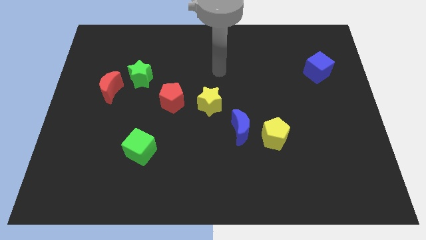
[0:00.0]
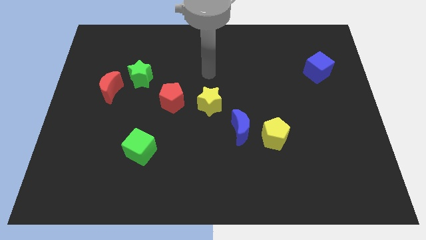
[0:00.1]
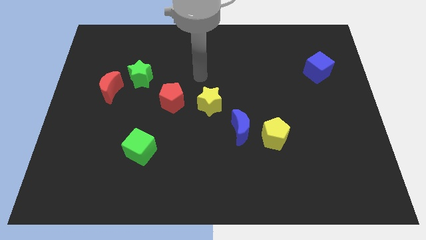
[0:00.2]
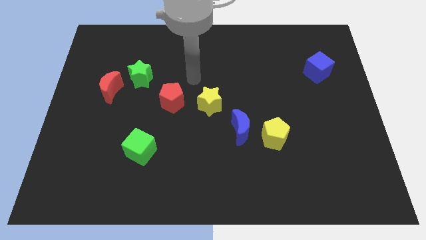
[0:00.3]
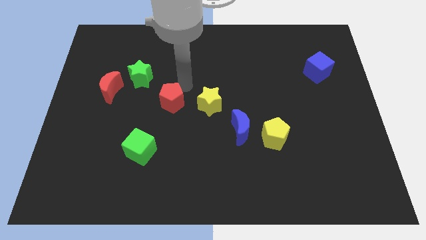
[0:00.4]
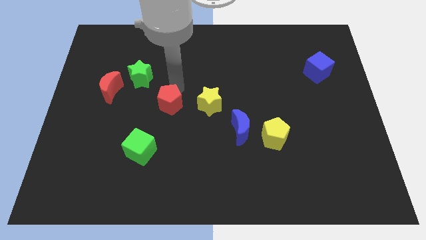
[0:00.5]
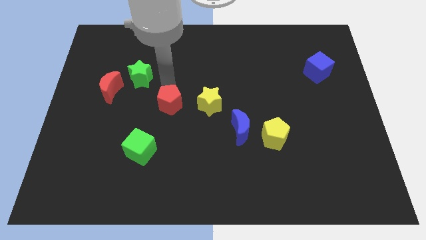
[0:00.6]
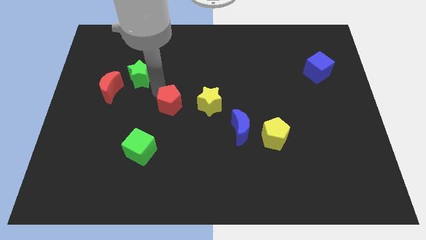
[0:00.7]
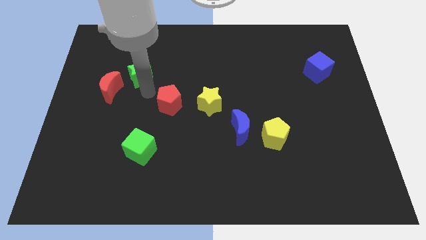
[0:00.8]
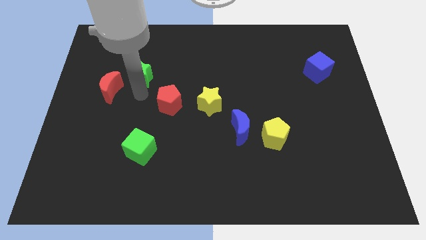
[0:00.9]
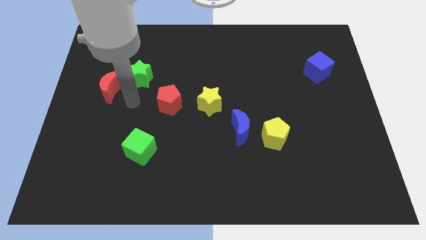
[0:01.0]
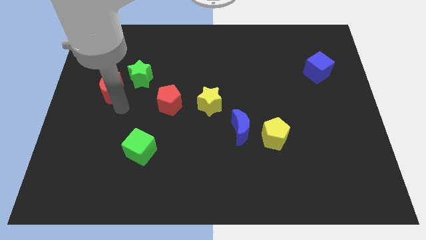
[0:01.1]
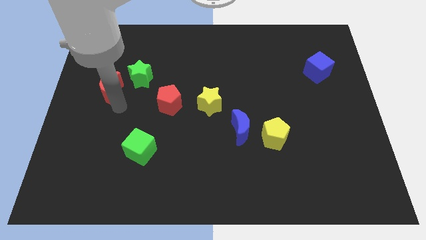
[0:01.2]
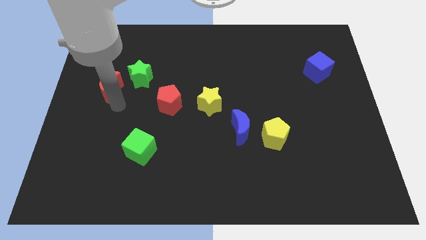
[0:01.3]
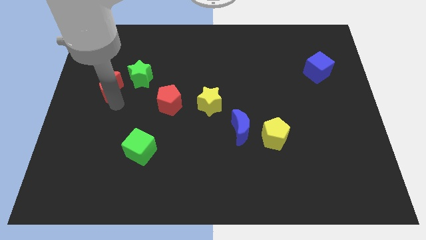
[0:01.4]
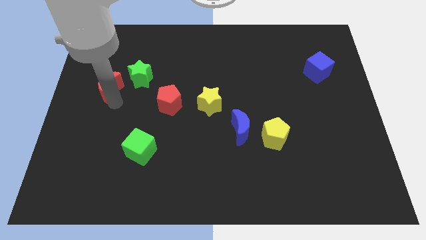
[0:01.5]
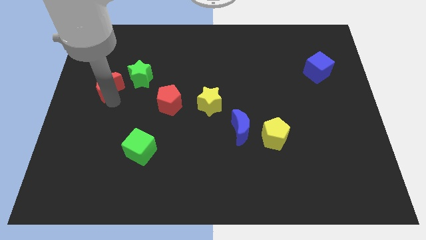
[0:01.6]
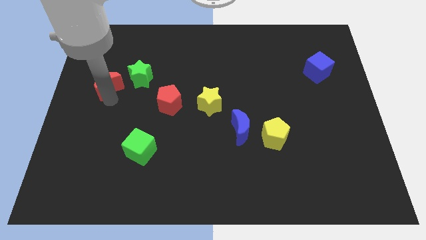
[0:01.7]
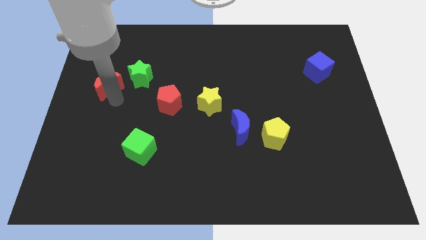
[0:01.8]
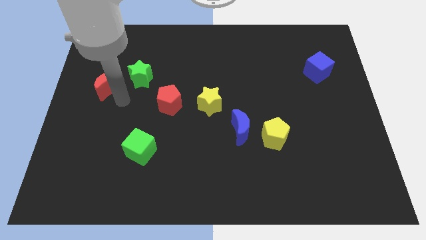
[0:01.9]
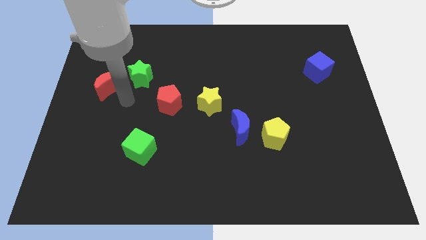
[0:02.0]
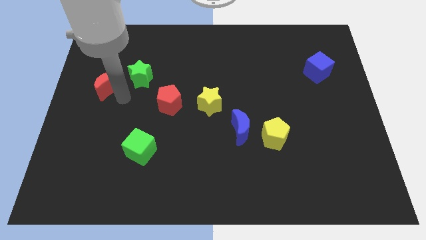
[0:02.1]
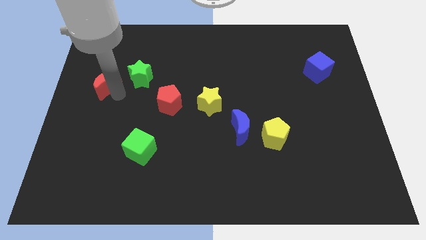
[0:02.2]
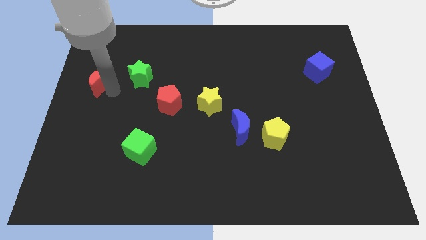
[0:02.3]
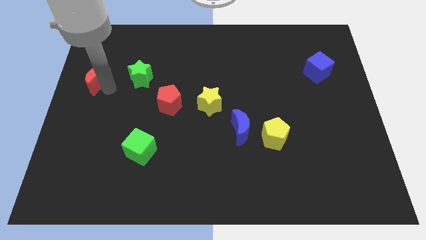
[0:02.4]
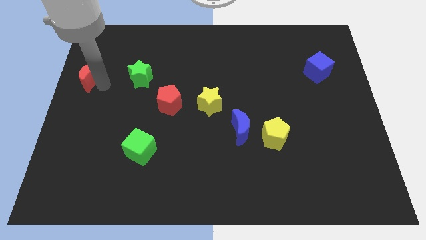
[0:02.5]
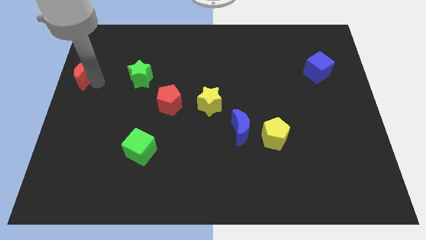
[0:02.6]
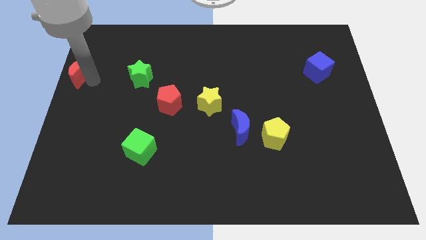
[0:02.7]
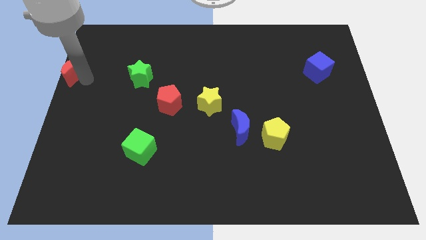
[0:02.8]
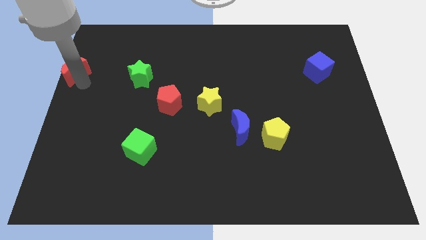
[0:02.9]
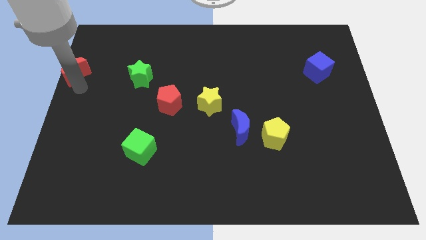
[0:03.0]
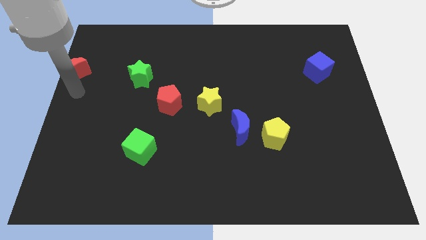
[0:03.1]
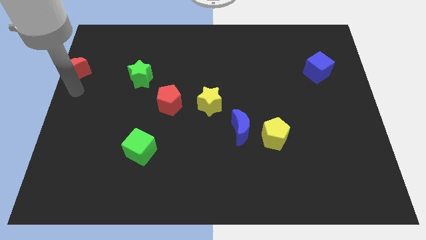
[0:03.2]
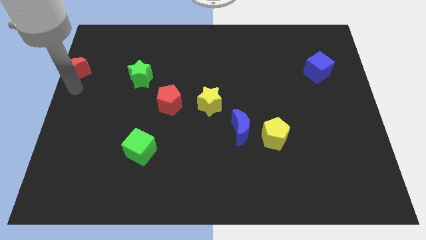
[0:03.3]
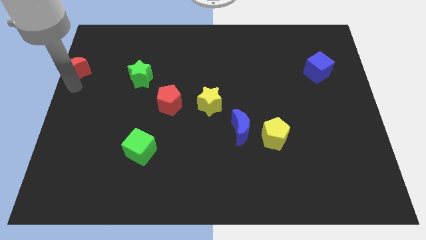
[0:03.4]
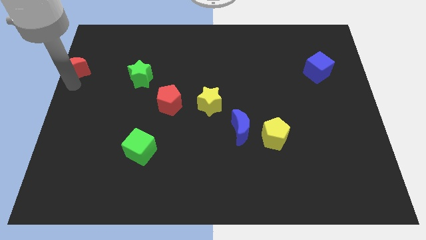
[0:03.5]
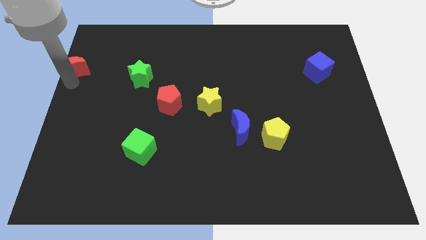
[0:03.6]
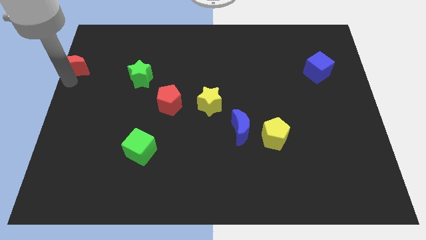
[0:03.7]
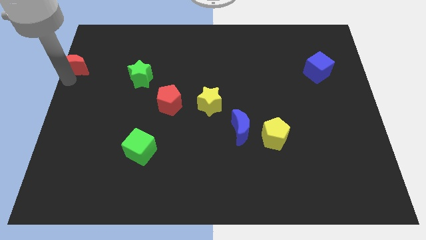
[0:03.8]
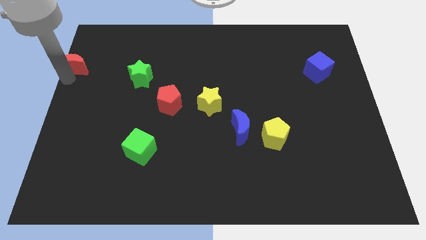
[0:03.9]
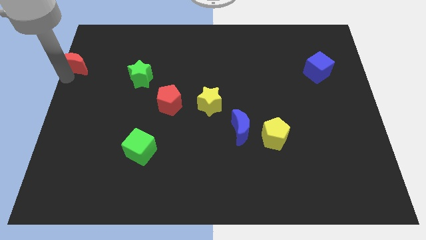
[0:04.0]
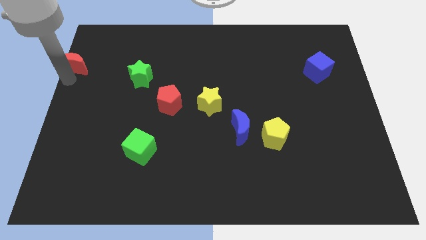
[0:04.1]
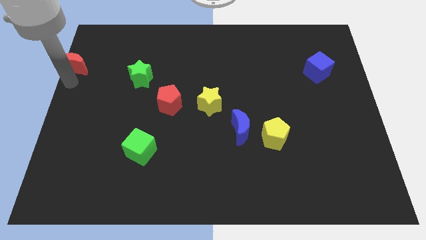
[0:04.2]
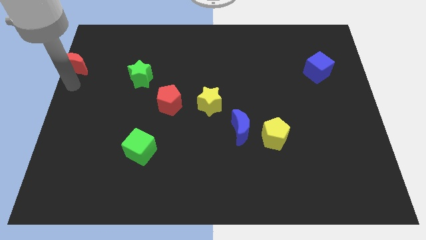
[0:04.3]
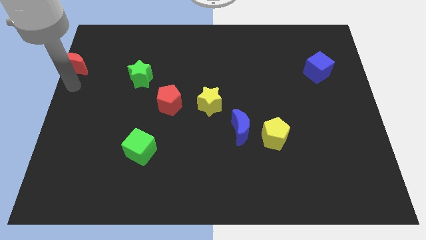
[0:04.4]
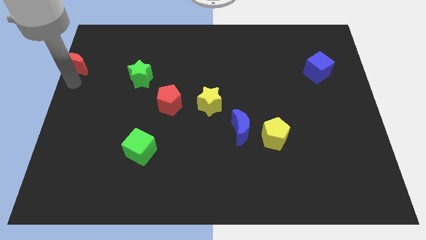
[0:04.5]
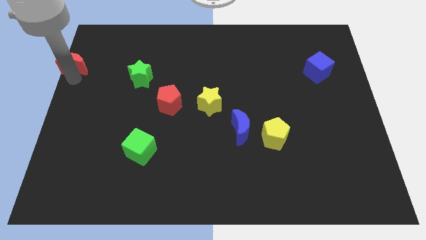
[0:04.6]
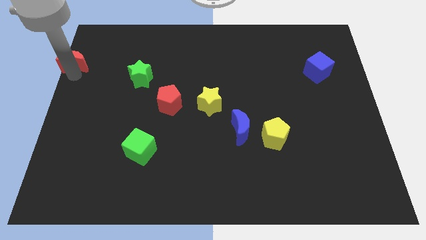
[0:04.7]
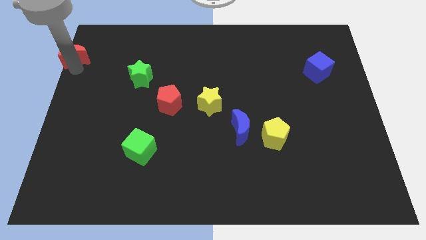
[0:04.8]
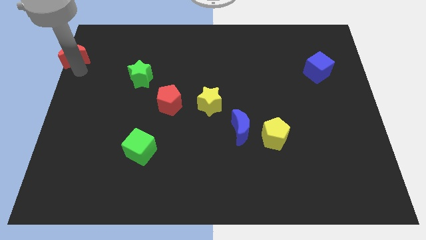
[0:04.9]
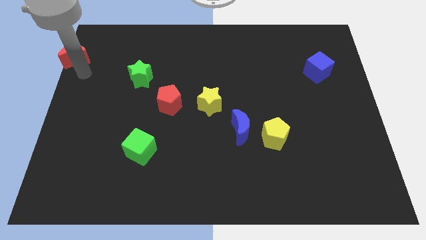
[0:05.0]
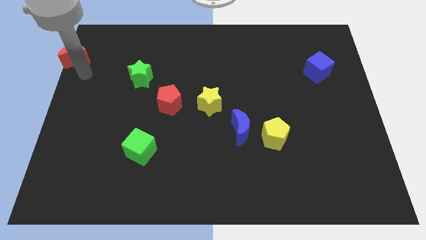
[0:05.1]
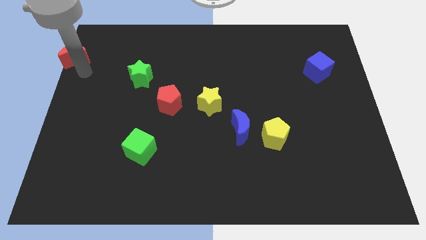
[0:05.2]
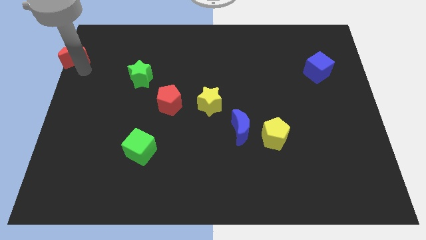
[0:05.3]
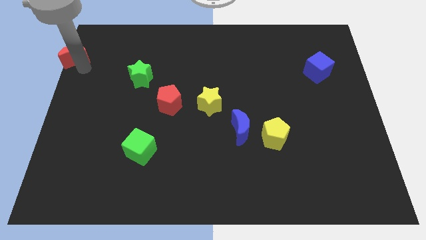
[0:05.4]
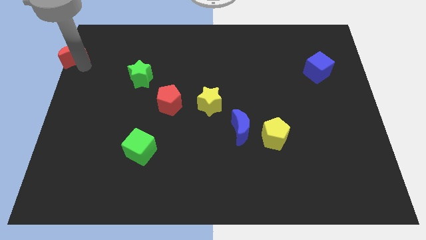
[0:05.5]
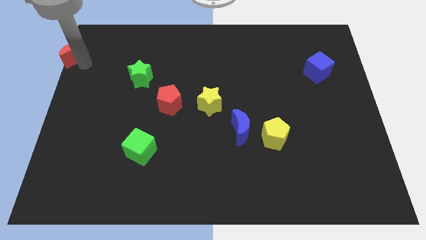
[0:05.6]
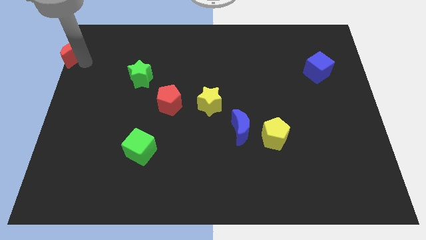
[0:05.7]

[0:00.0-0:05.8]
put the red moon to the top left of the board

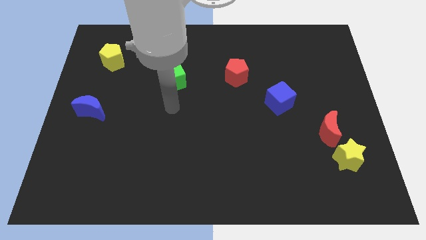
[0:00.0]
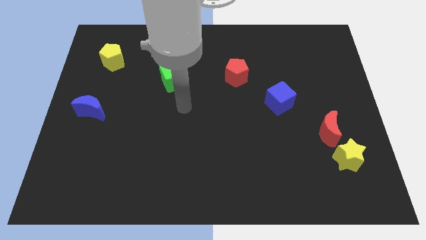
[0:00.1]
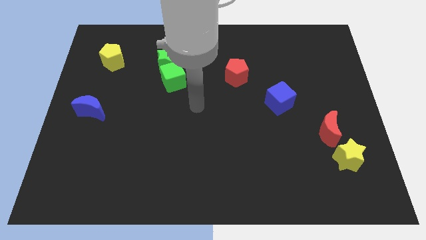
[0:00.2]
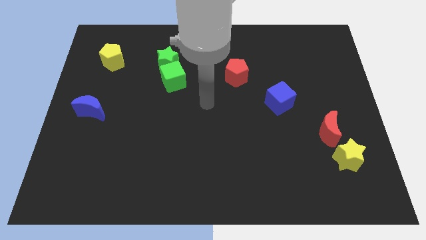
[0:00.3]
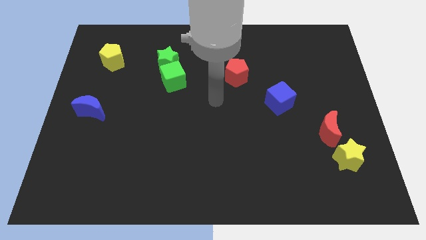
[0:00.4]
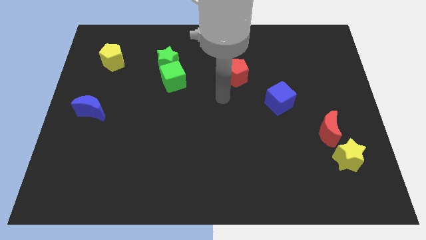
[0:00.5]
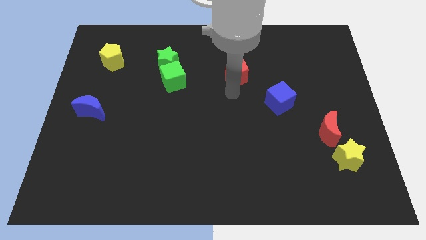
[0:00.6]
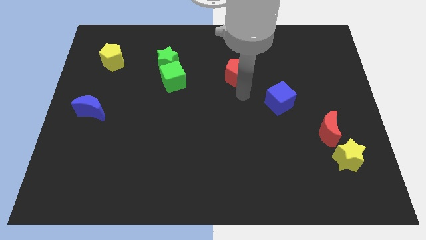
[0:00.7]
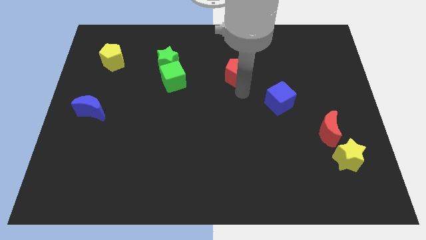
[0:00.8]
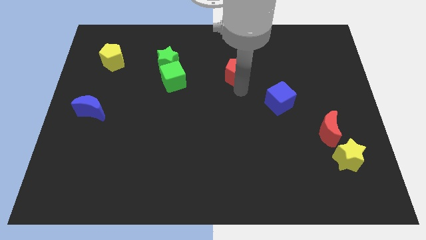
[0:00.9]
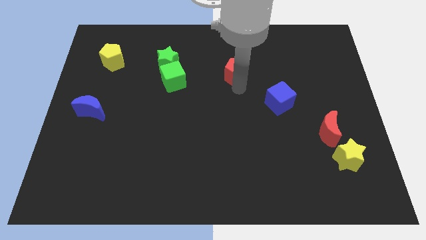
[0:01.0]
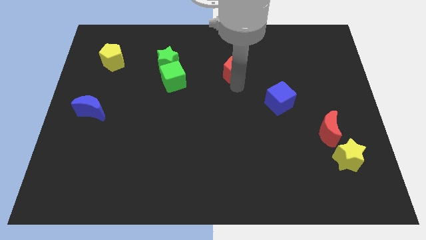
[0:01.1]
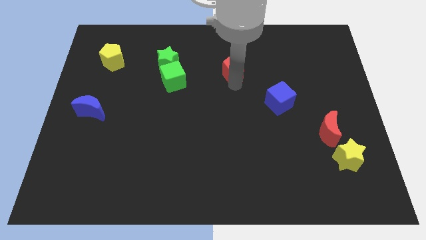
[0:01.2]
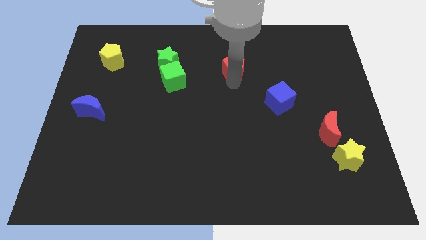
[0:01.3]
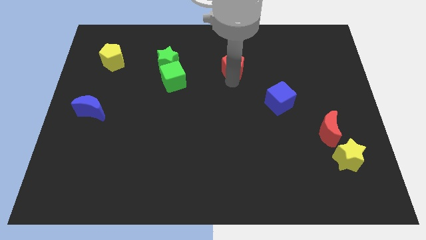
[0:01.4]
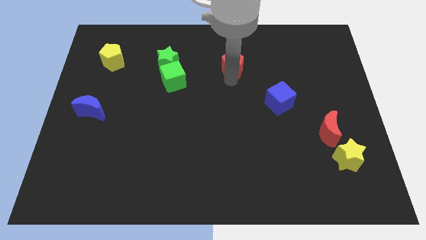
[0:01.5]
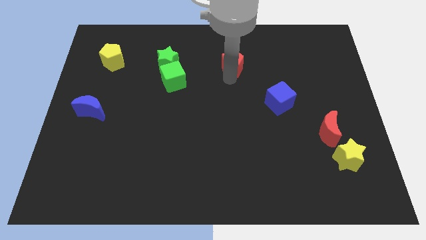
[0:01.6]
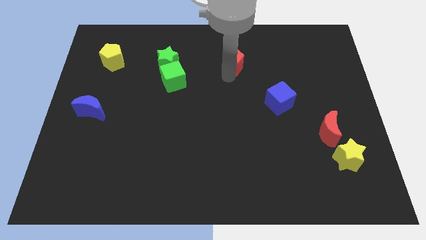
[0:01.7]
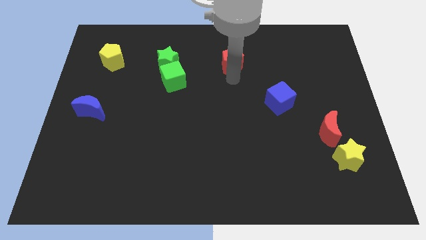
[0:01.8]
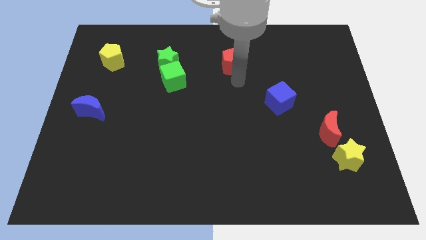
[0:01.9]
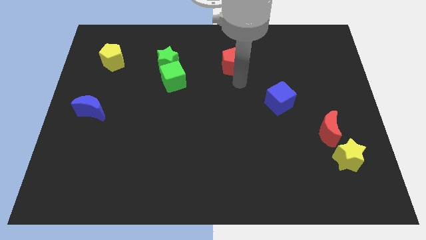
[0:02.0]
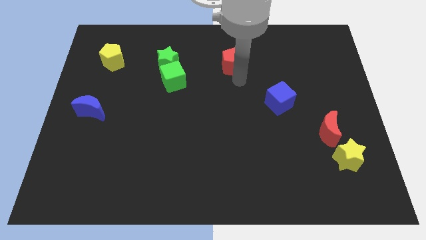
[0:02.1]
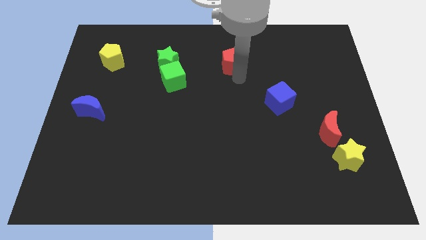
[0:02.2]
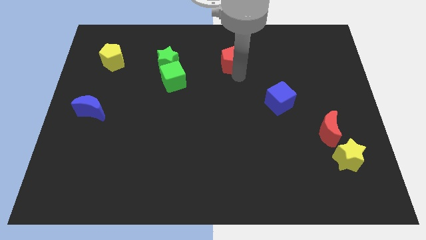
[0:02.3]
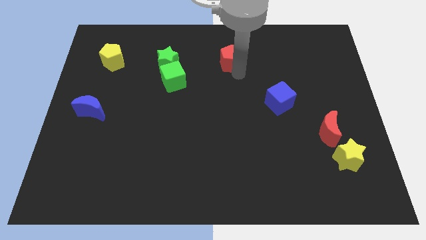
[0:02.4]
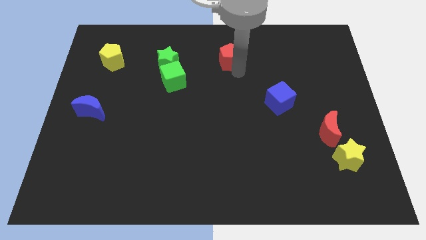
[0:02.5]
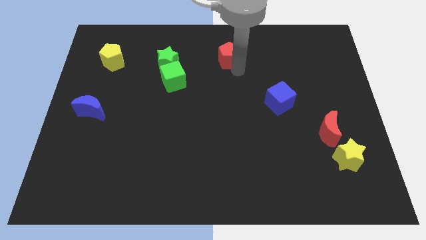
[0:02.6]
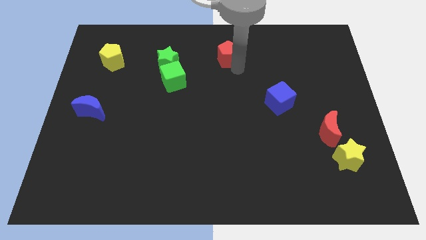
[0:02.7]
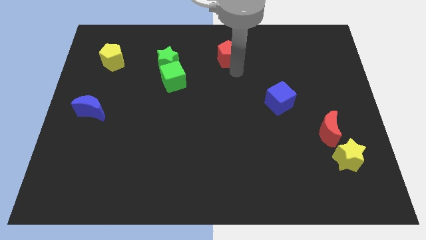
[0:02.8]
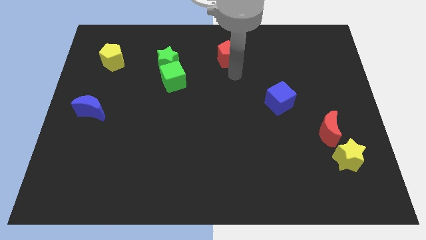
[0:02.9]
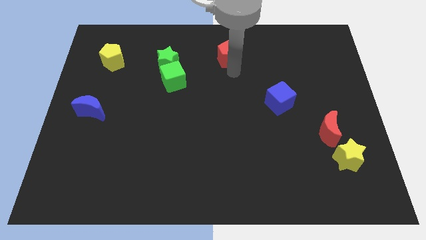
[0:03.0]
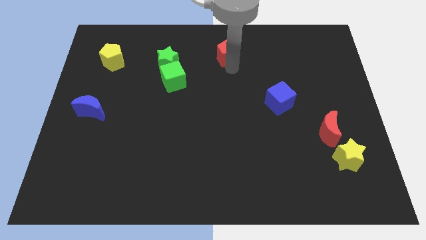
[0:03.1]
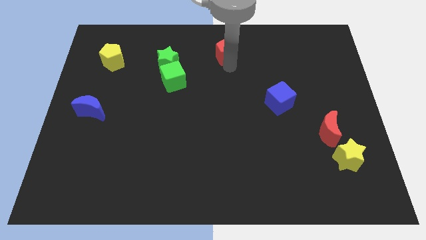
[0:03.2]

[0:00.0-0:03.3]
push the red pentagon to the top side
